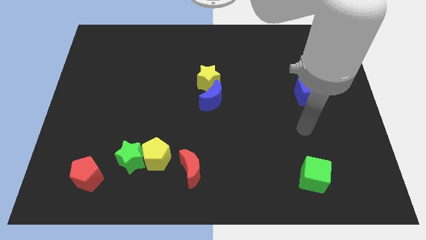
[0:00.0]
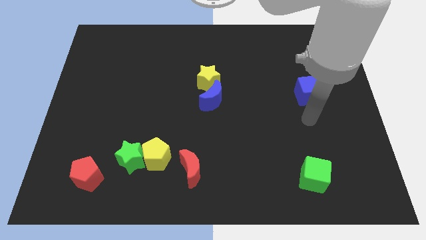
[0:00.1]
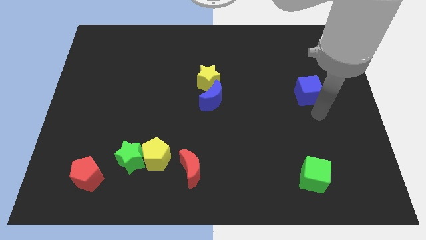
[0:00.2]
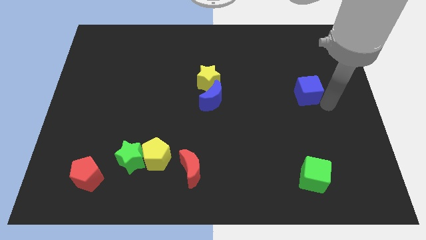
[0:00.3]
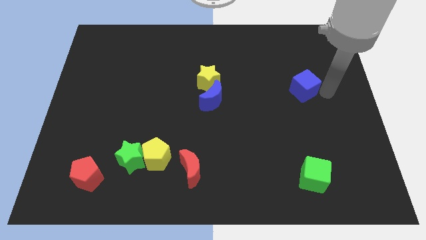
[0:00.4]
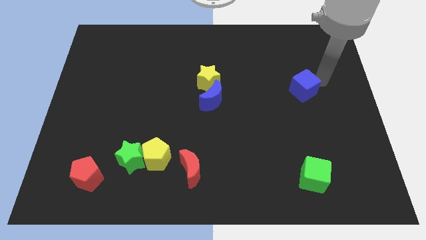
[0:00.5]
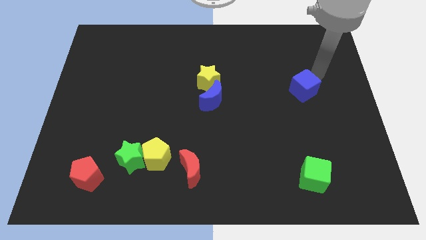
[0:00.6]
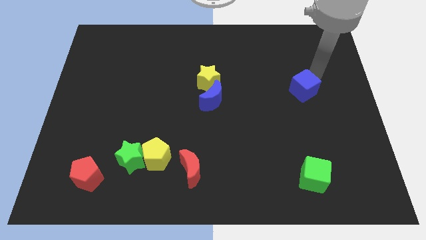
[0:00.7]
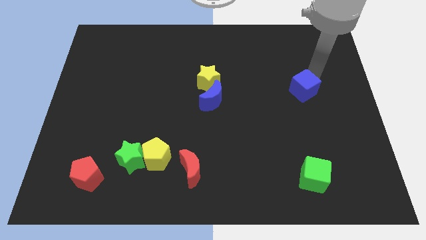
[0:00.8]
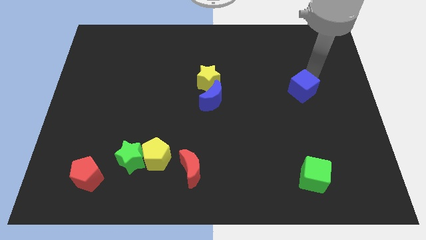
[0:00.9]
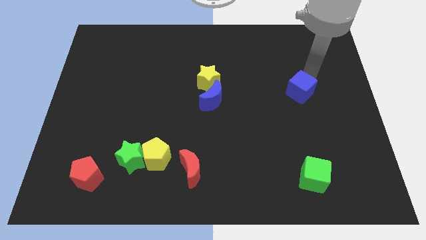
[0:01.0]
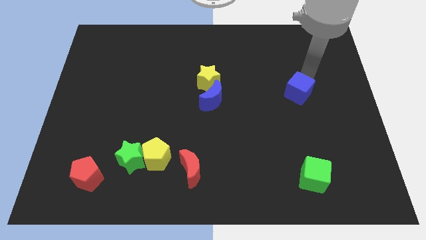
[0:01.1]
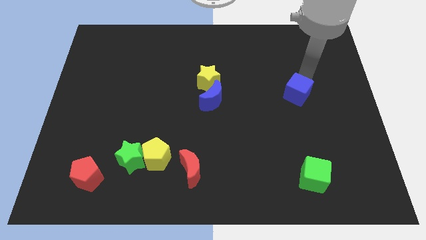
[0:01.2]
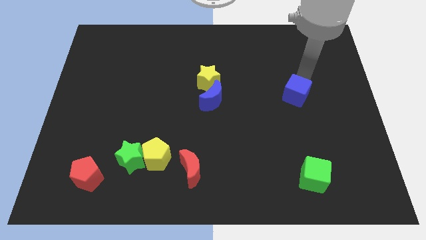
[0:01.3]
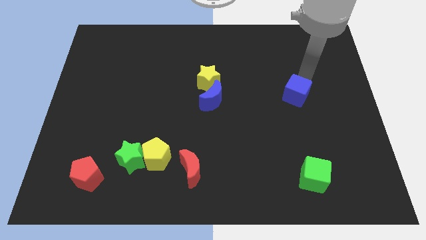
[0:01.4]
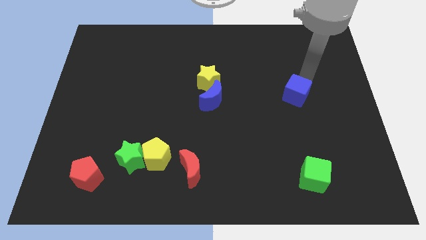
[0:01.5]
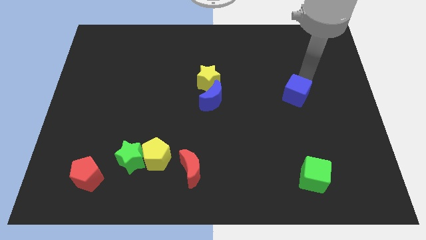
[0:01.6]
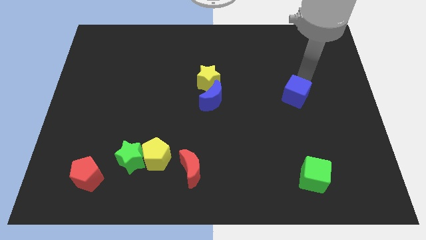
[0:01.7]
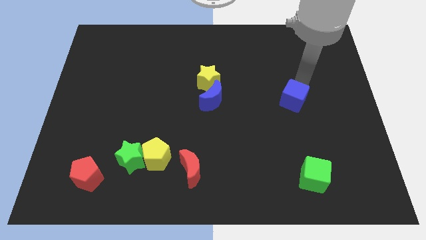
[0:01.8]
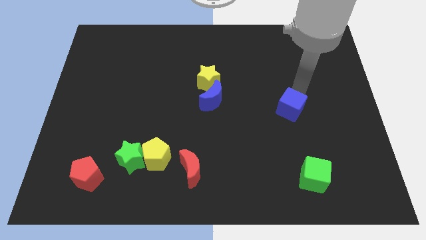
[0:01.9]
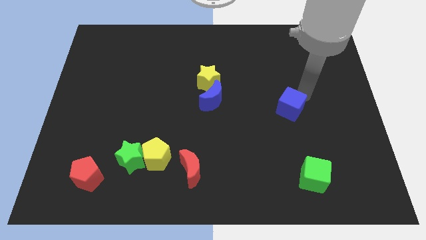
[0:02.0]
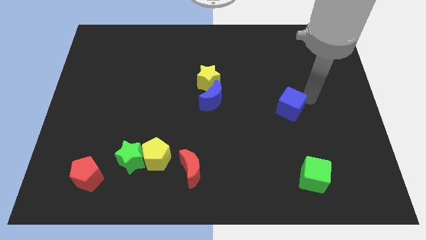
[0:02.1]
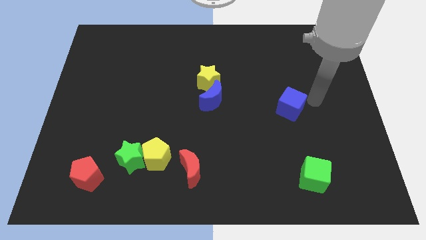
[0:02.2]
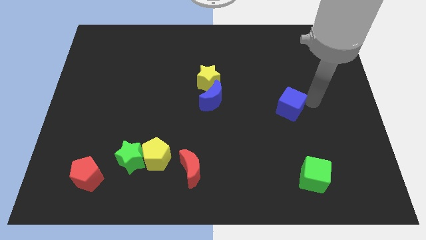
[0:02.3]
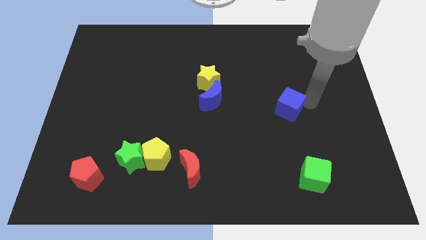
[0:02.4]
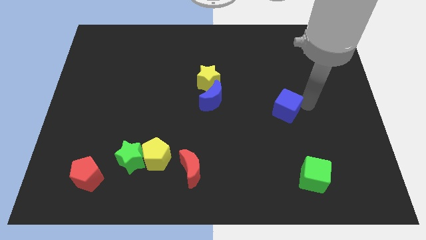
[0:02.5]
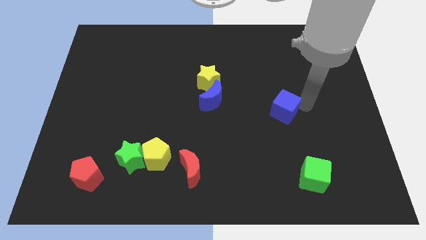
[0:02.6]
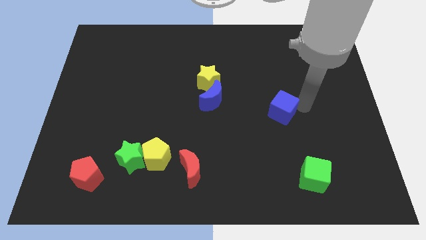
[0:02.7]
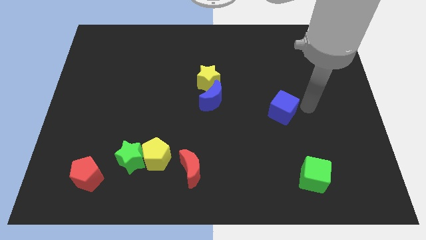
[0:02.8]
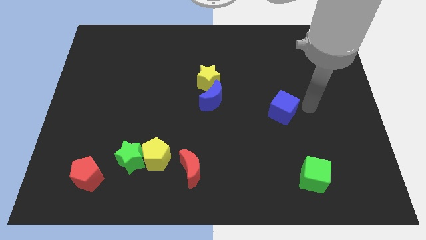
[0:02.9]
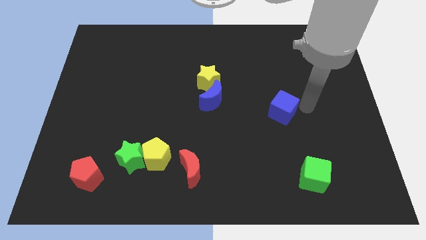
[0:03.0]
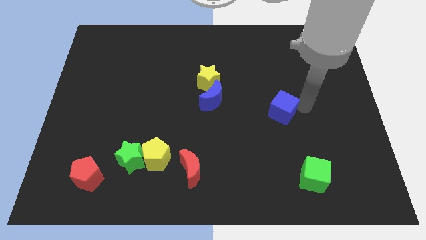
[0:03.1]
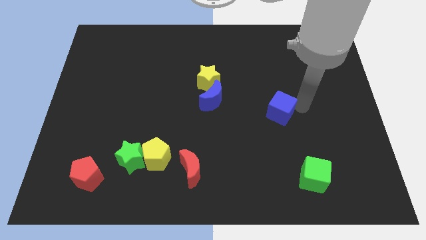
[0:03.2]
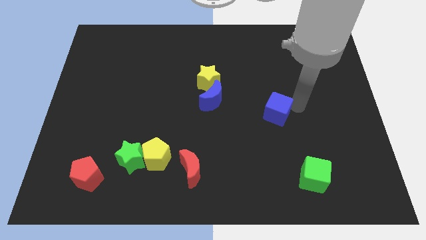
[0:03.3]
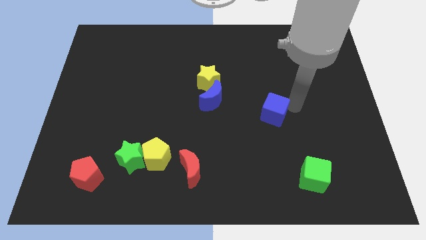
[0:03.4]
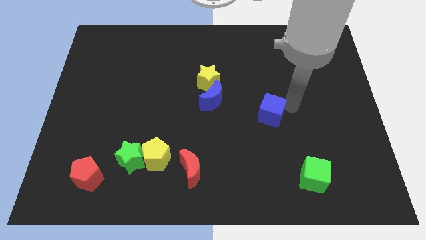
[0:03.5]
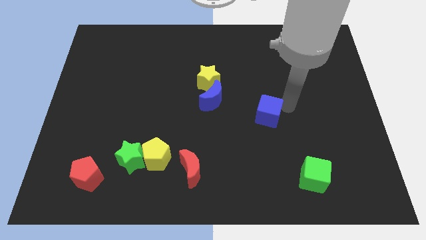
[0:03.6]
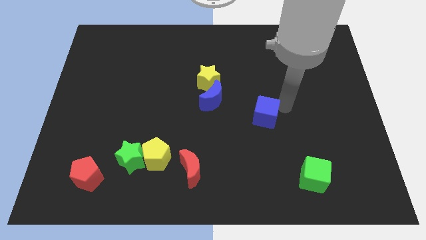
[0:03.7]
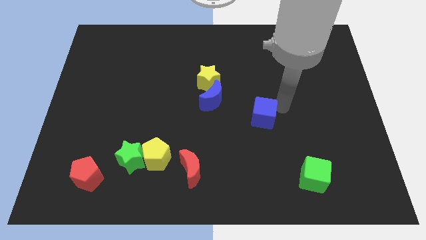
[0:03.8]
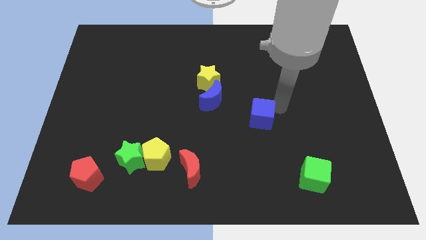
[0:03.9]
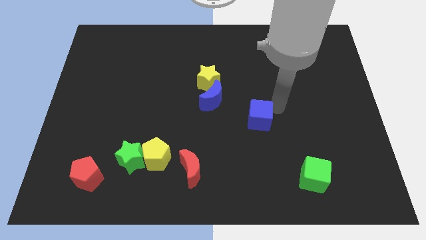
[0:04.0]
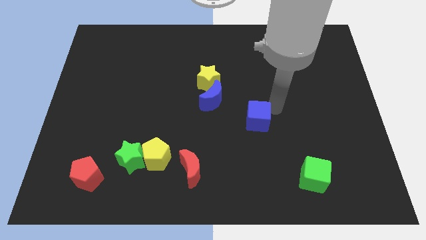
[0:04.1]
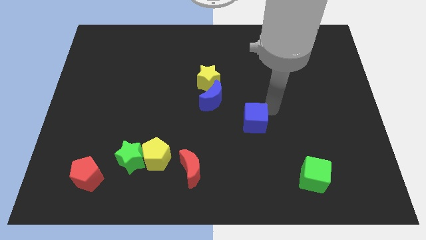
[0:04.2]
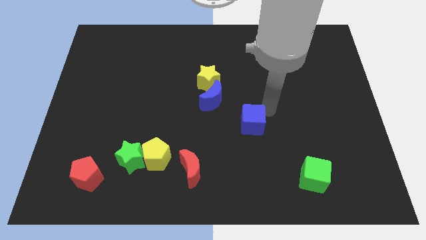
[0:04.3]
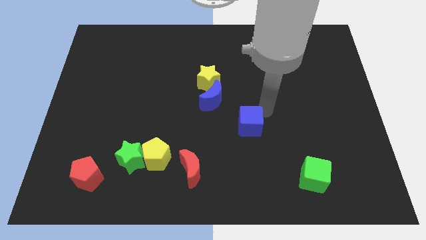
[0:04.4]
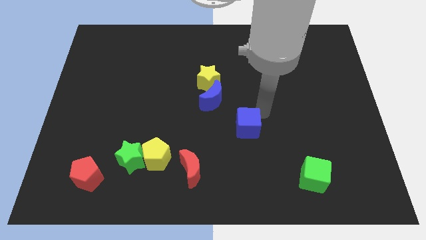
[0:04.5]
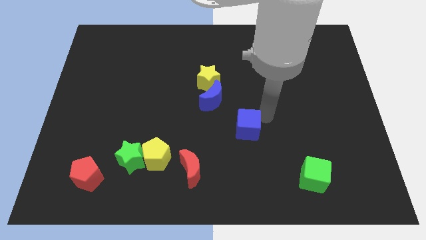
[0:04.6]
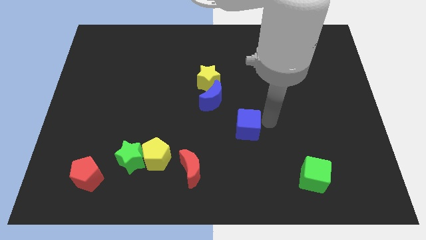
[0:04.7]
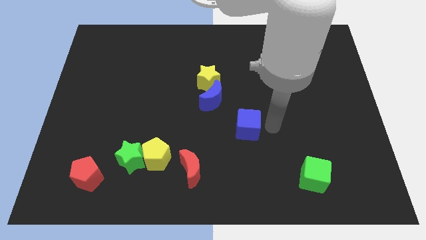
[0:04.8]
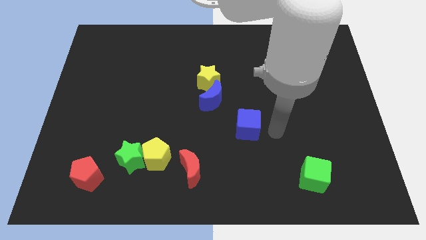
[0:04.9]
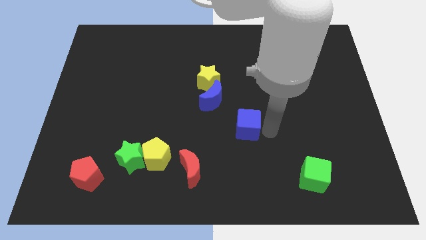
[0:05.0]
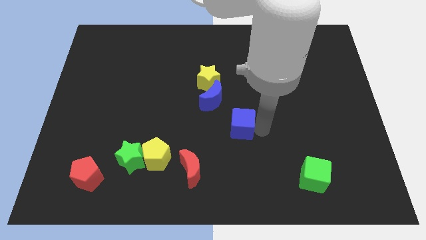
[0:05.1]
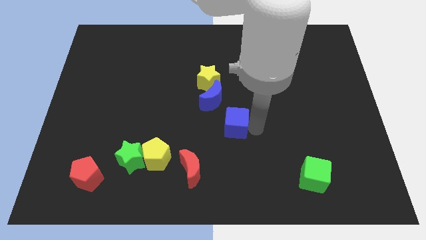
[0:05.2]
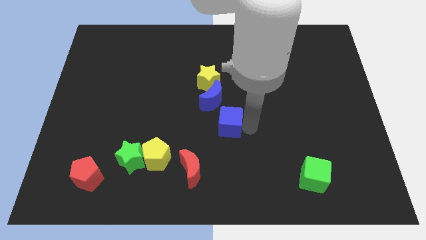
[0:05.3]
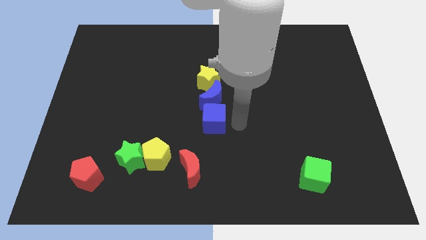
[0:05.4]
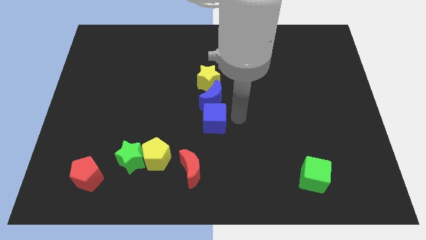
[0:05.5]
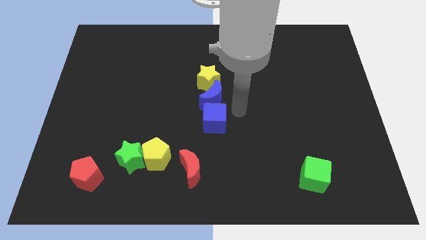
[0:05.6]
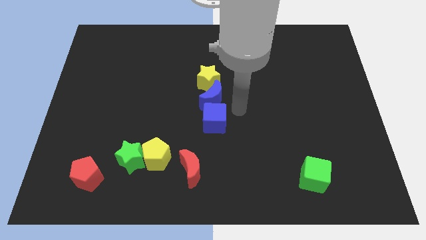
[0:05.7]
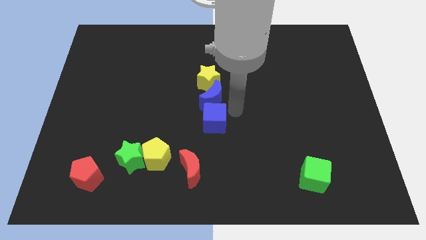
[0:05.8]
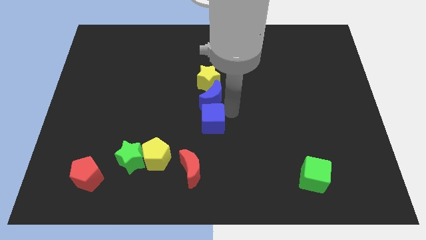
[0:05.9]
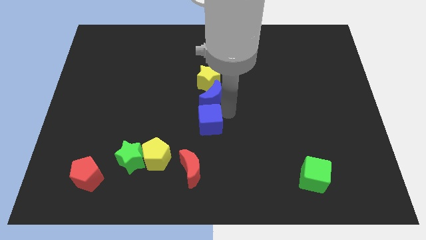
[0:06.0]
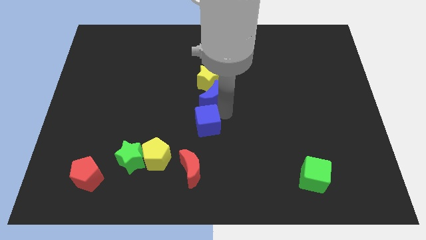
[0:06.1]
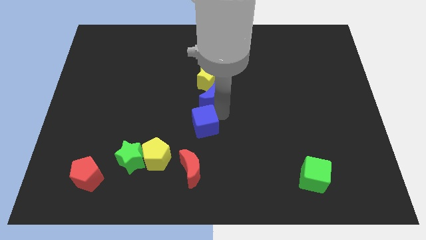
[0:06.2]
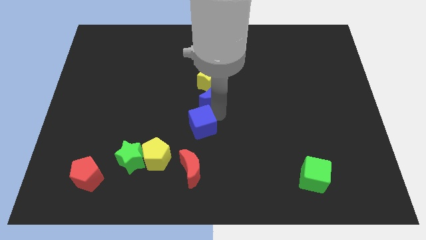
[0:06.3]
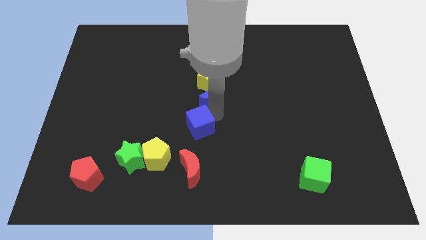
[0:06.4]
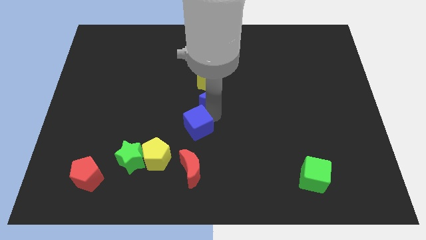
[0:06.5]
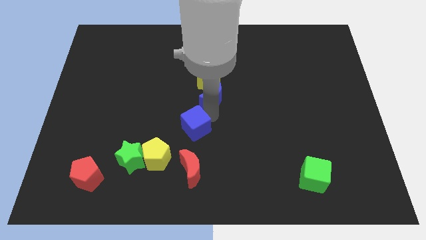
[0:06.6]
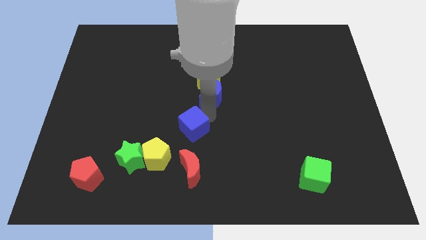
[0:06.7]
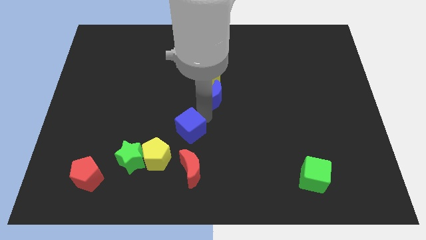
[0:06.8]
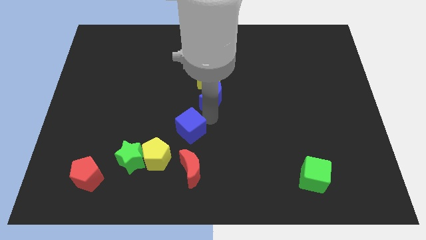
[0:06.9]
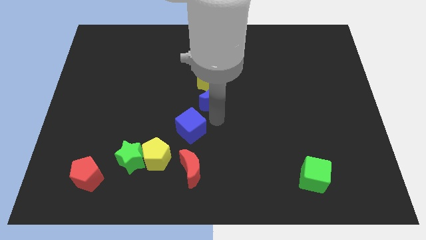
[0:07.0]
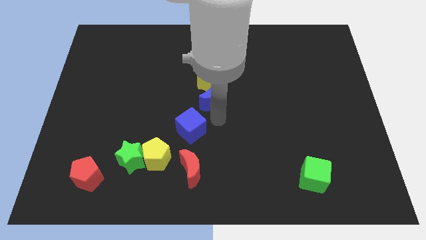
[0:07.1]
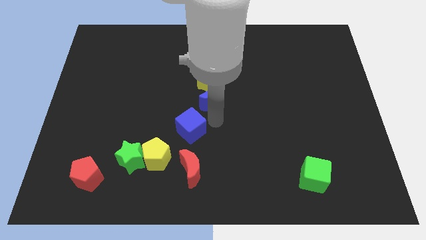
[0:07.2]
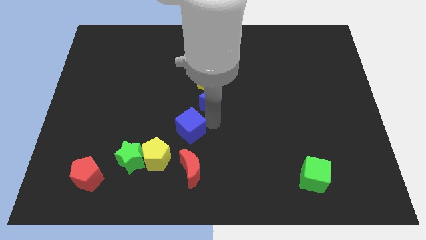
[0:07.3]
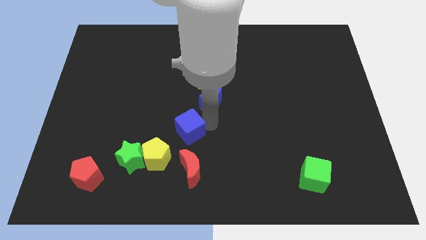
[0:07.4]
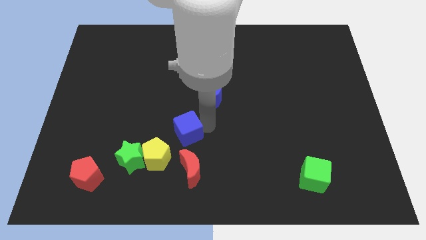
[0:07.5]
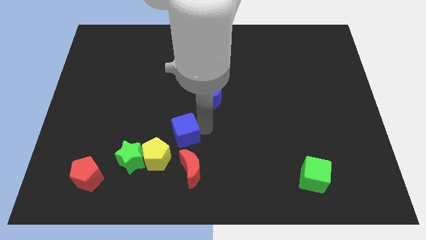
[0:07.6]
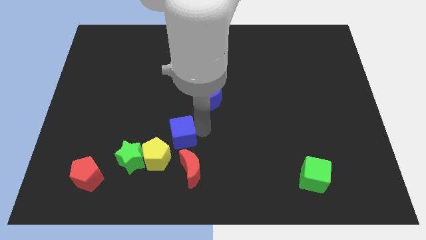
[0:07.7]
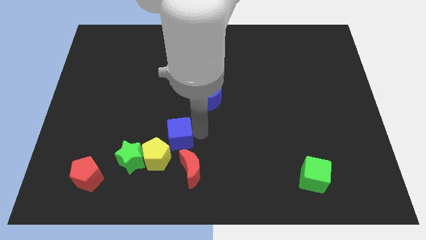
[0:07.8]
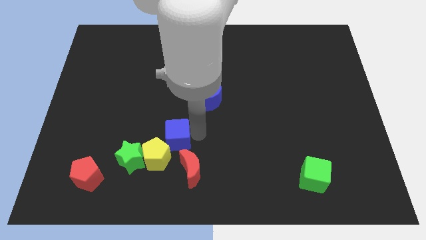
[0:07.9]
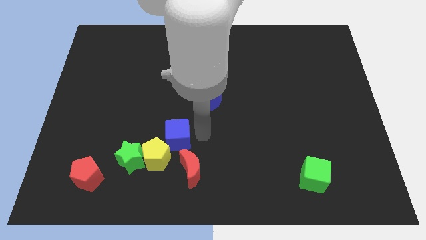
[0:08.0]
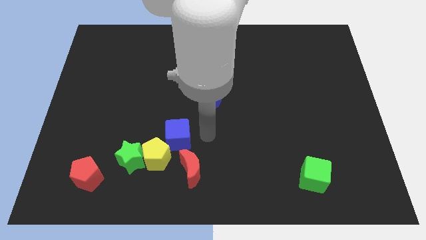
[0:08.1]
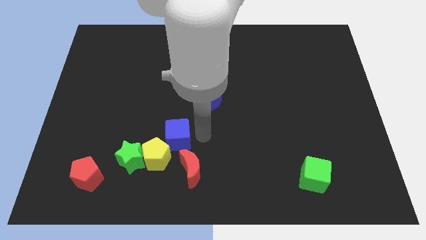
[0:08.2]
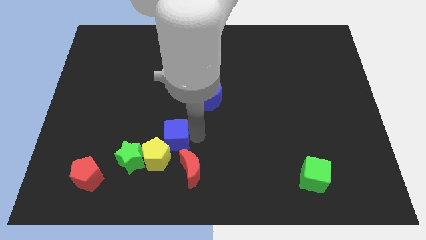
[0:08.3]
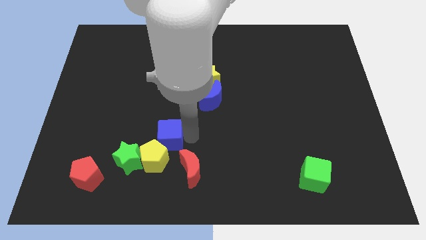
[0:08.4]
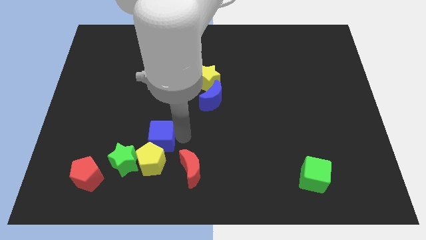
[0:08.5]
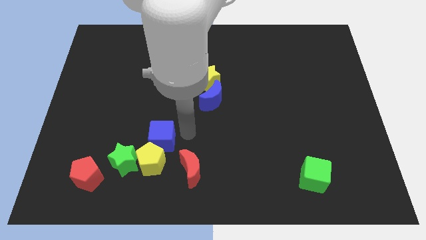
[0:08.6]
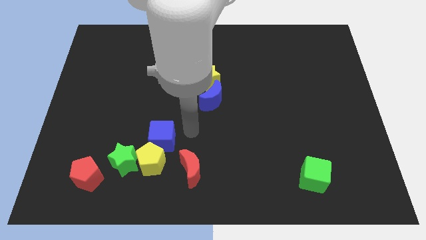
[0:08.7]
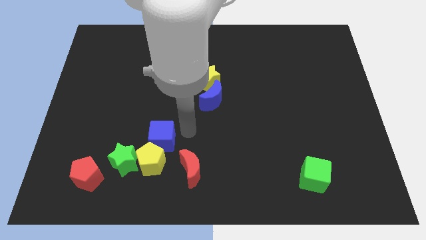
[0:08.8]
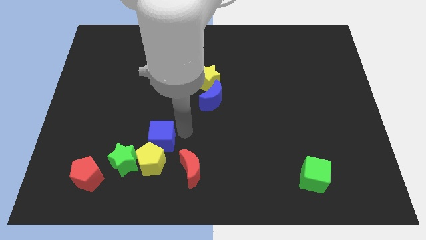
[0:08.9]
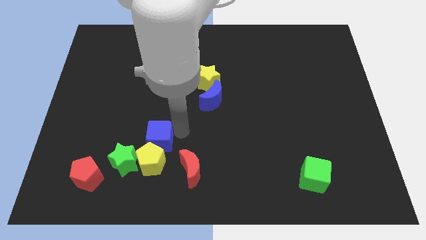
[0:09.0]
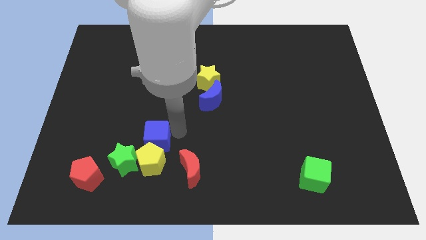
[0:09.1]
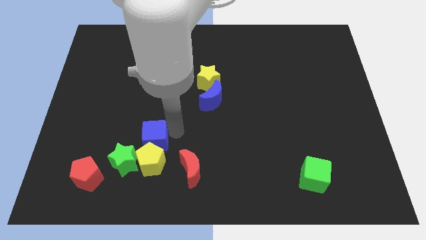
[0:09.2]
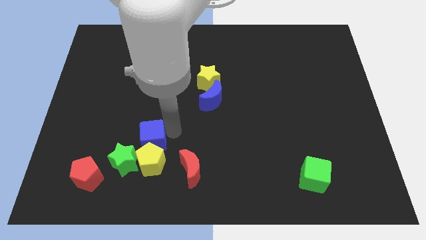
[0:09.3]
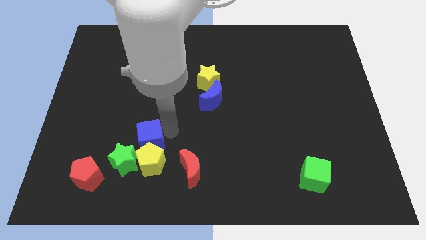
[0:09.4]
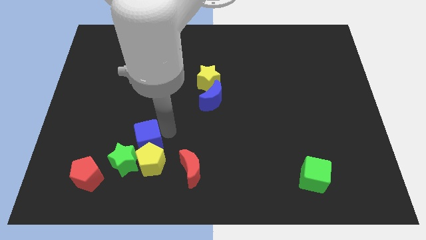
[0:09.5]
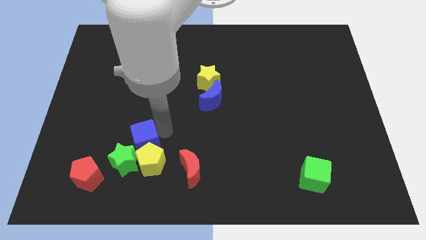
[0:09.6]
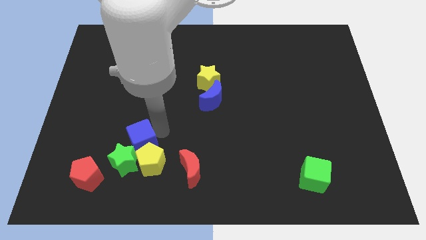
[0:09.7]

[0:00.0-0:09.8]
move the blue cube next to the green star
